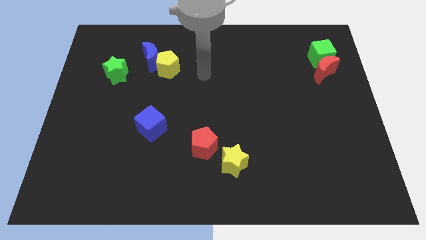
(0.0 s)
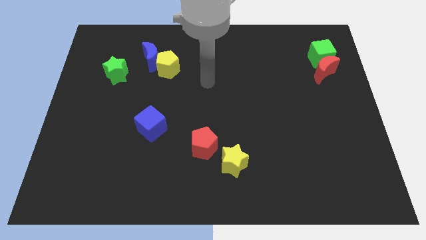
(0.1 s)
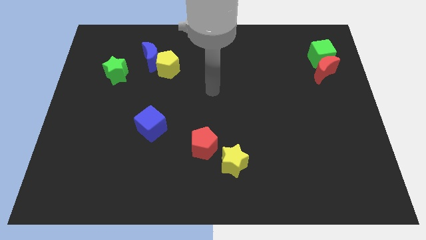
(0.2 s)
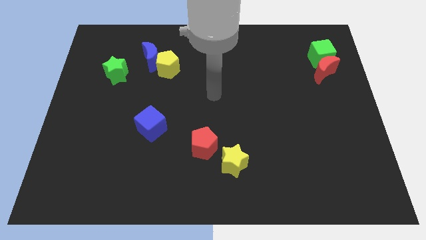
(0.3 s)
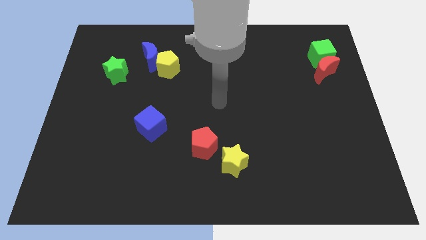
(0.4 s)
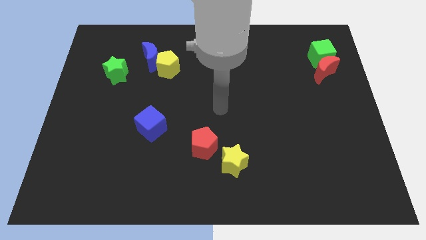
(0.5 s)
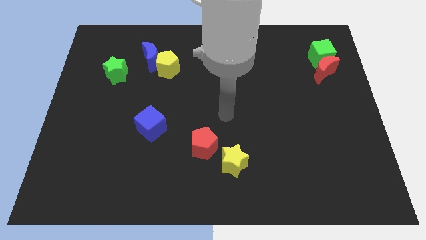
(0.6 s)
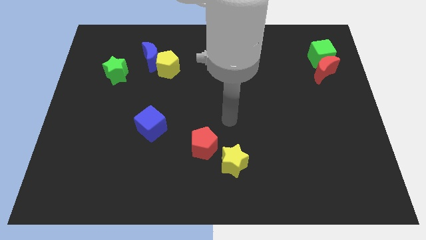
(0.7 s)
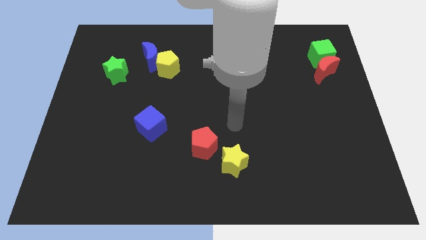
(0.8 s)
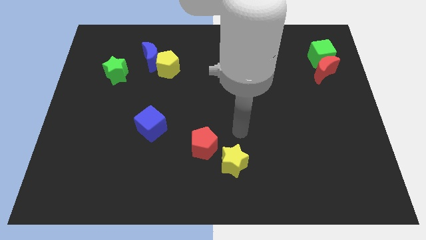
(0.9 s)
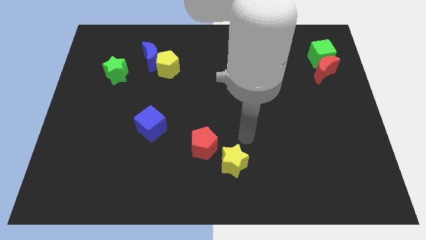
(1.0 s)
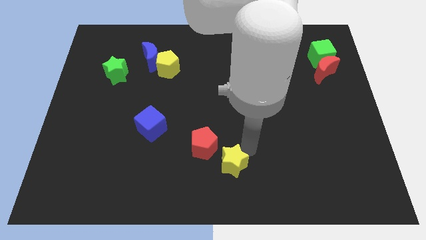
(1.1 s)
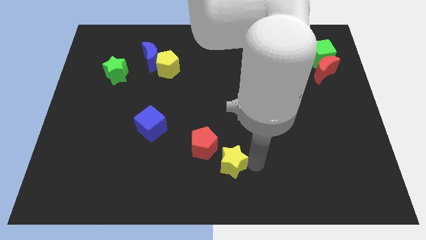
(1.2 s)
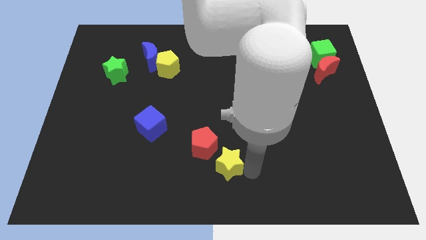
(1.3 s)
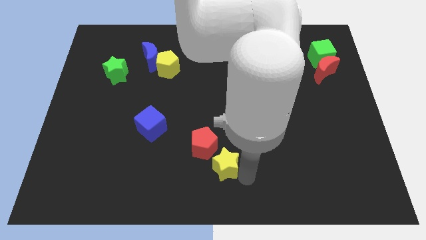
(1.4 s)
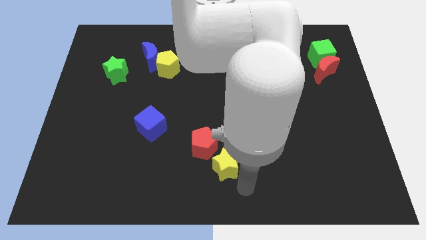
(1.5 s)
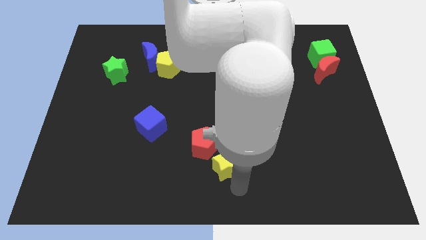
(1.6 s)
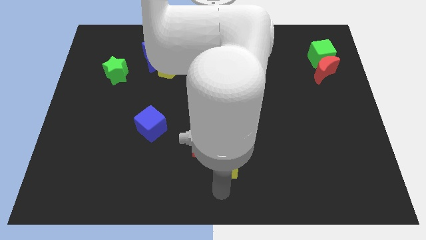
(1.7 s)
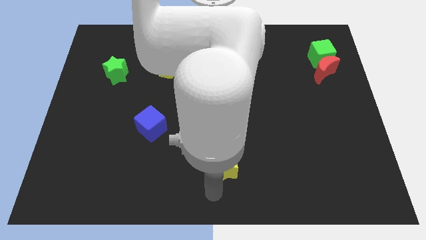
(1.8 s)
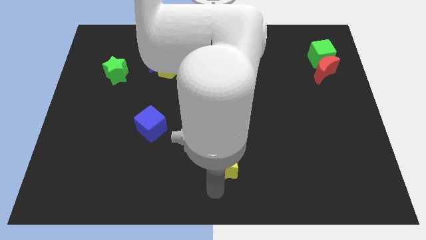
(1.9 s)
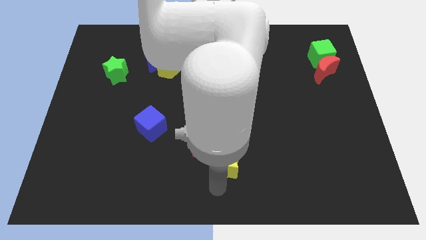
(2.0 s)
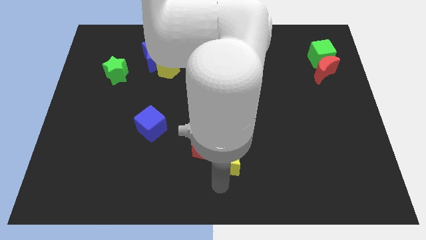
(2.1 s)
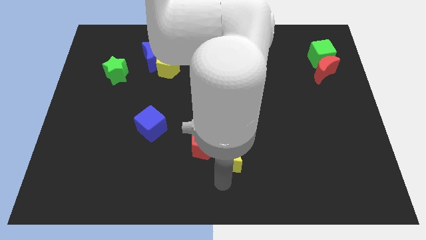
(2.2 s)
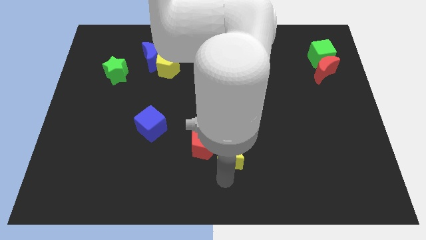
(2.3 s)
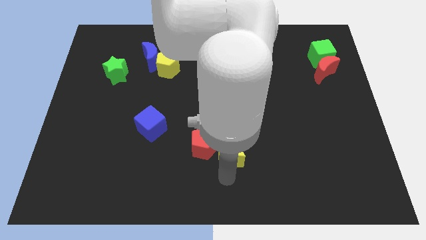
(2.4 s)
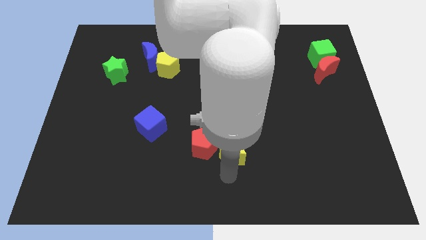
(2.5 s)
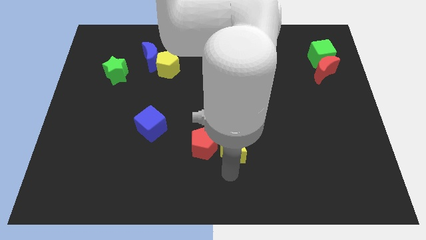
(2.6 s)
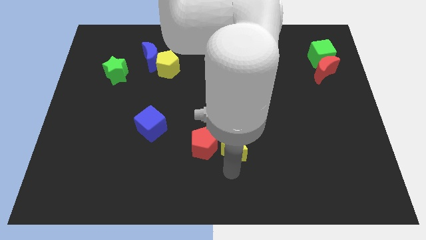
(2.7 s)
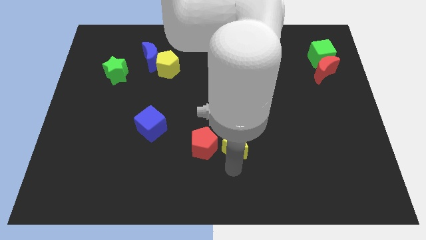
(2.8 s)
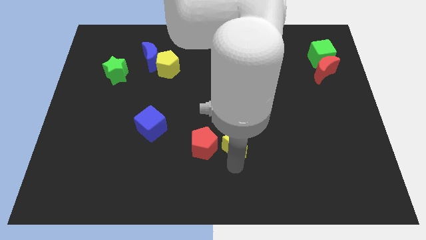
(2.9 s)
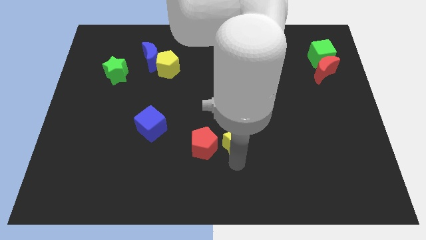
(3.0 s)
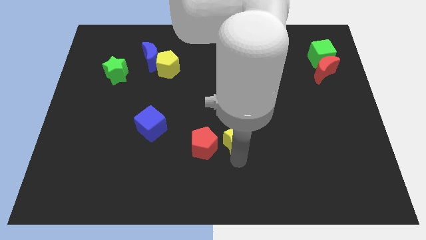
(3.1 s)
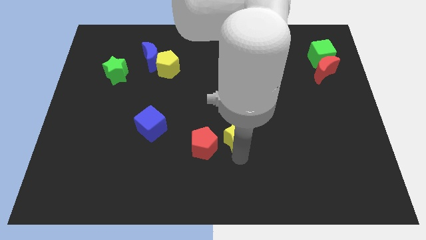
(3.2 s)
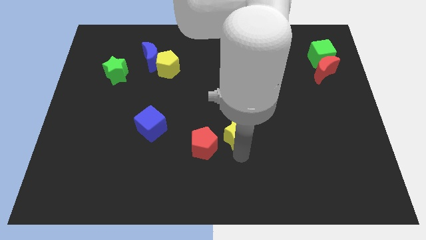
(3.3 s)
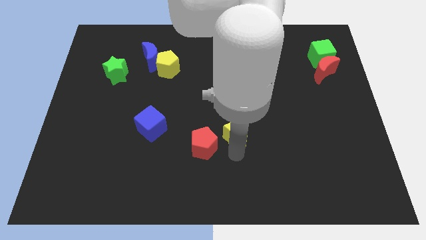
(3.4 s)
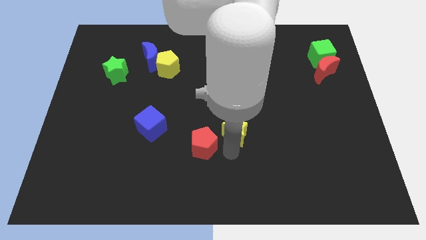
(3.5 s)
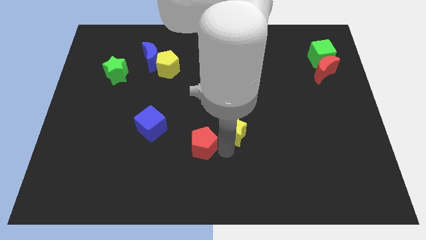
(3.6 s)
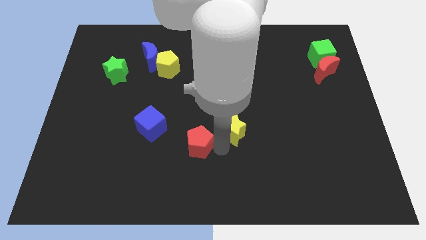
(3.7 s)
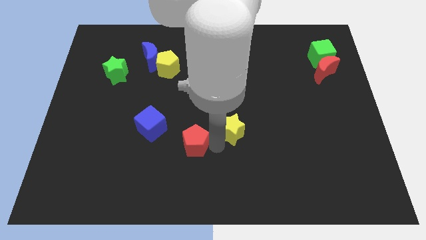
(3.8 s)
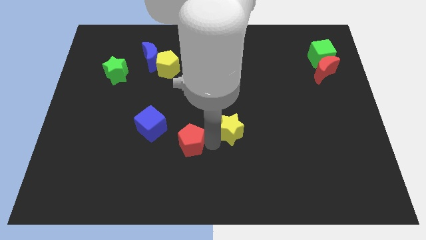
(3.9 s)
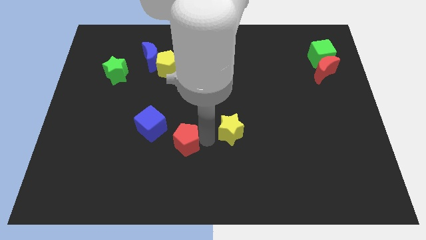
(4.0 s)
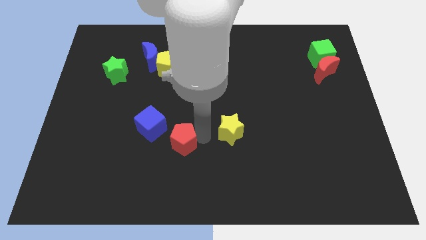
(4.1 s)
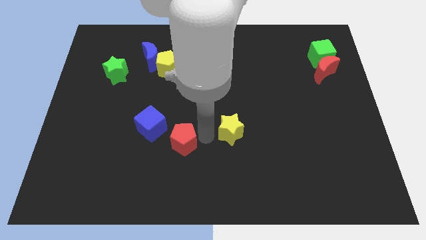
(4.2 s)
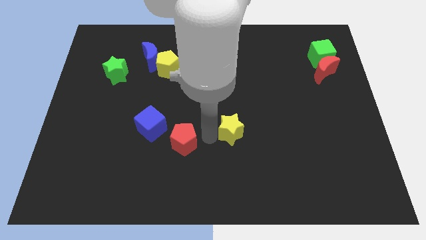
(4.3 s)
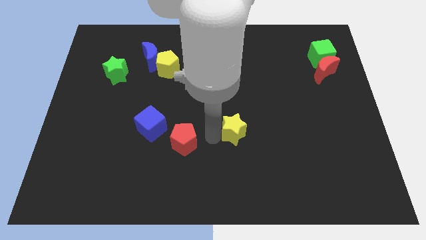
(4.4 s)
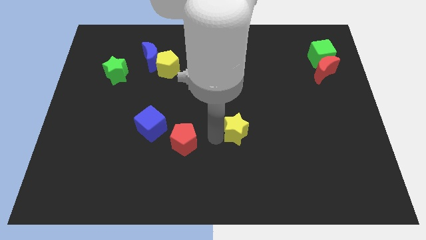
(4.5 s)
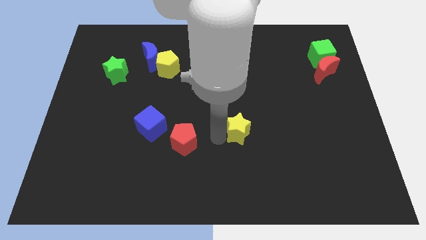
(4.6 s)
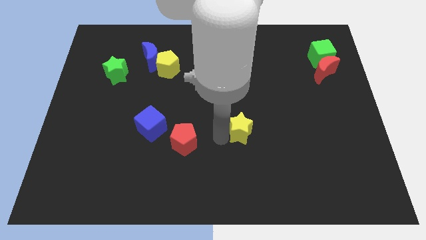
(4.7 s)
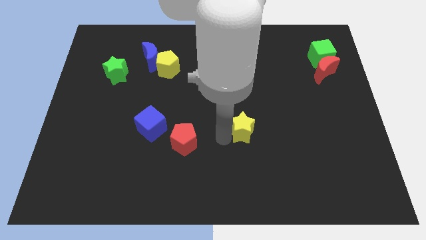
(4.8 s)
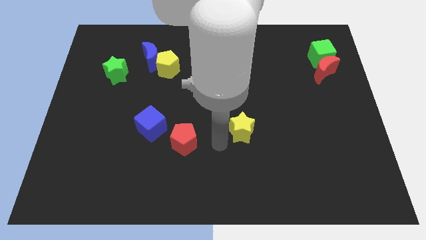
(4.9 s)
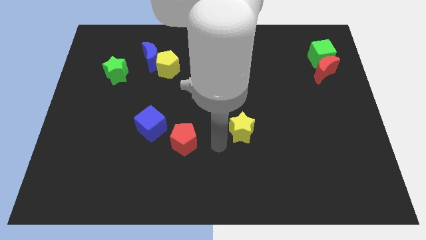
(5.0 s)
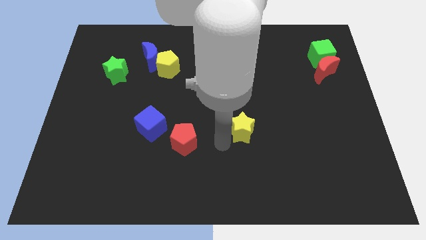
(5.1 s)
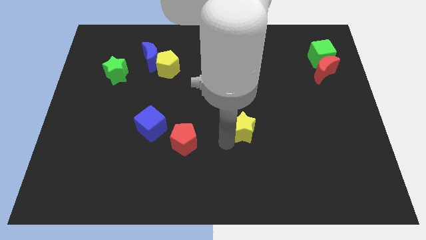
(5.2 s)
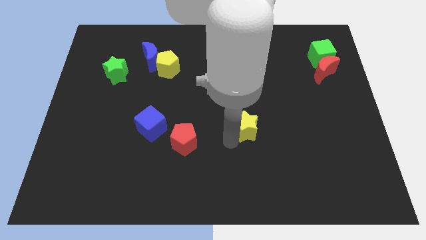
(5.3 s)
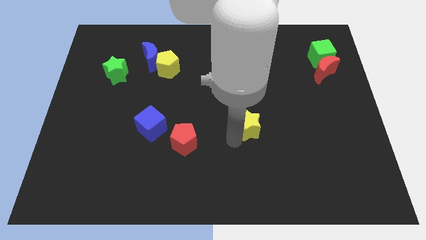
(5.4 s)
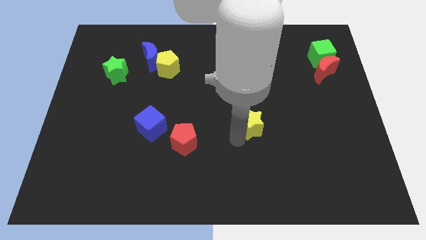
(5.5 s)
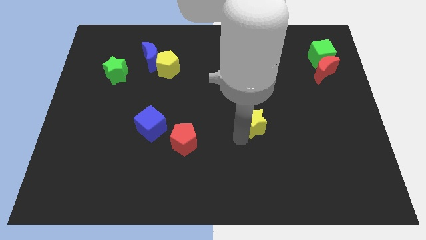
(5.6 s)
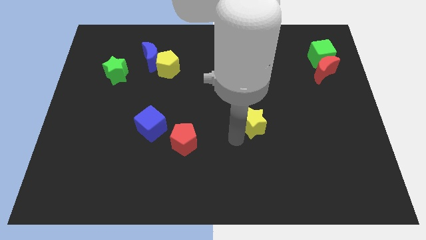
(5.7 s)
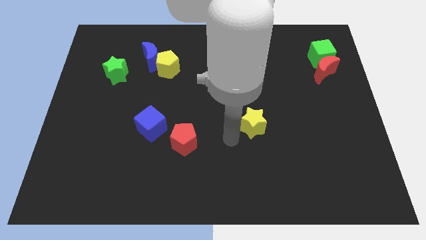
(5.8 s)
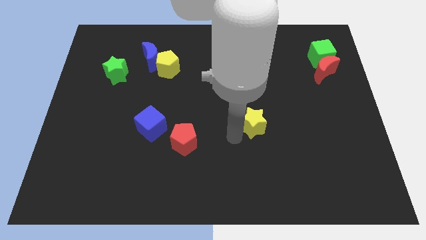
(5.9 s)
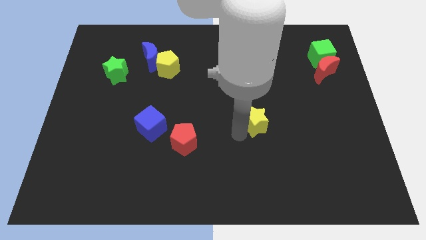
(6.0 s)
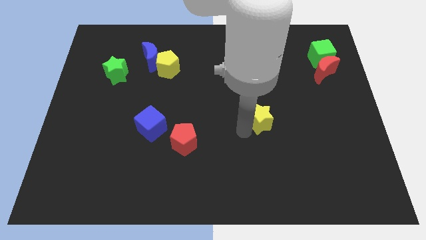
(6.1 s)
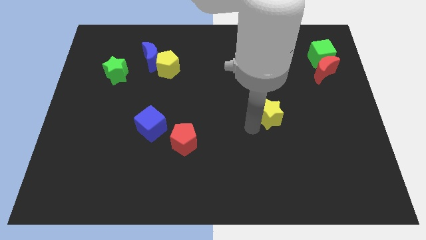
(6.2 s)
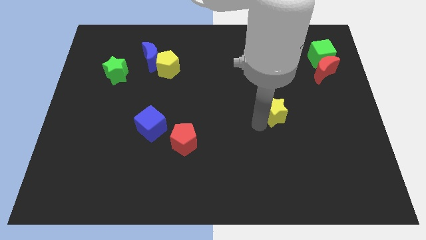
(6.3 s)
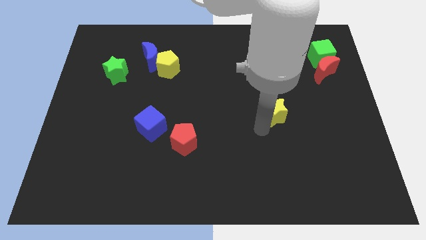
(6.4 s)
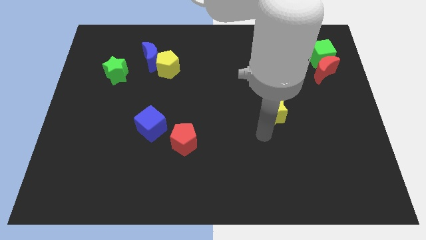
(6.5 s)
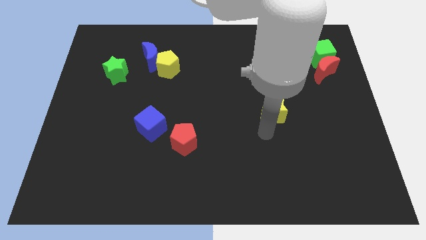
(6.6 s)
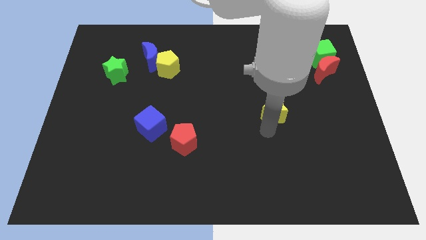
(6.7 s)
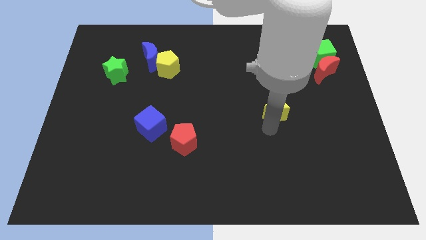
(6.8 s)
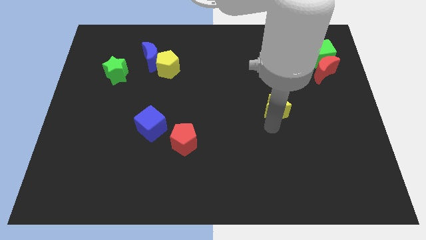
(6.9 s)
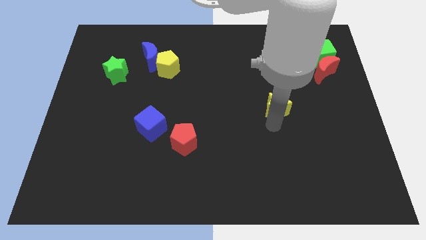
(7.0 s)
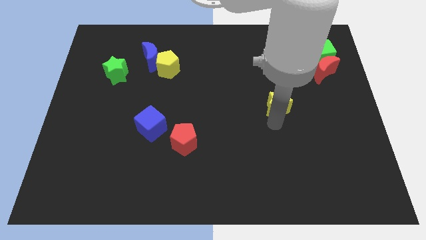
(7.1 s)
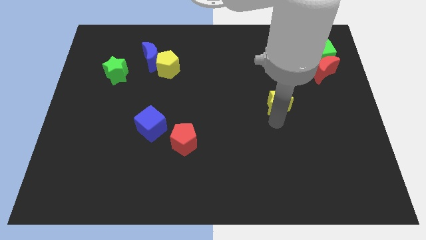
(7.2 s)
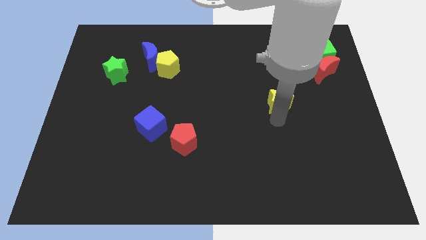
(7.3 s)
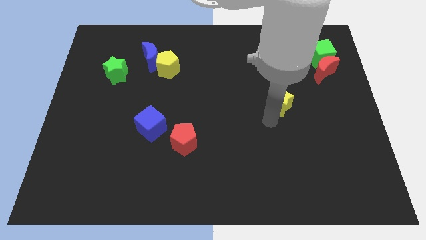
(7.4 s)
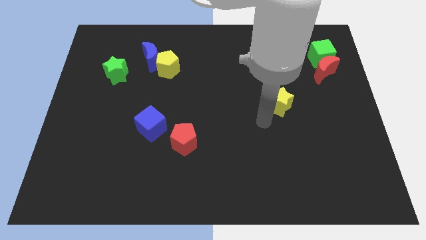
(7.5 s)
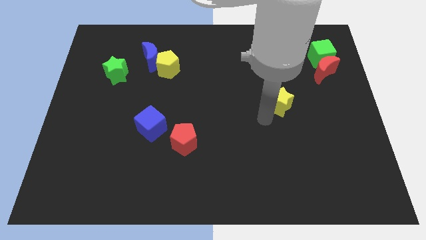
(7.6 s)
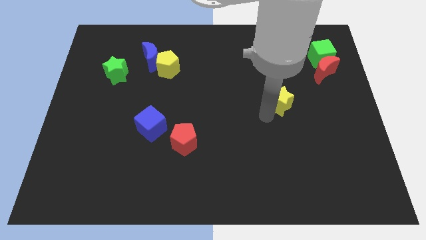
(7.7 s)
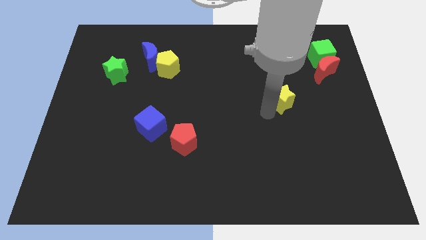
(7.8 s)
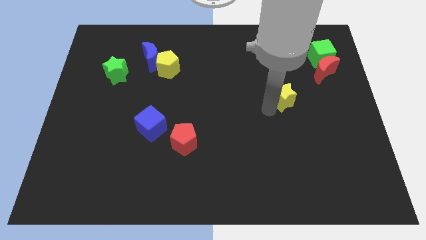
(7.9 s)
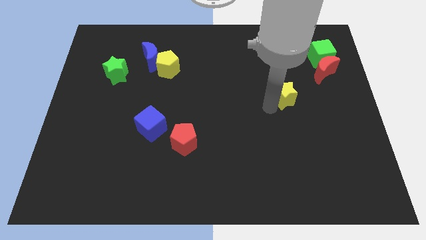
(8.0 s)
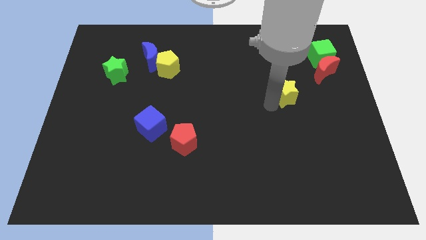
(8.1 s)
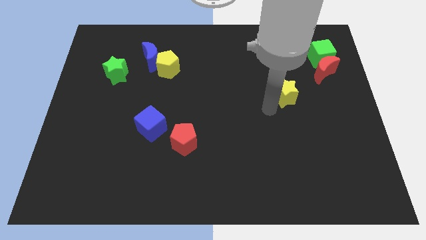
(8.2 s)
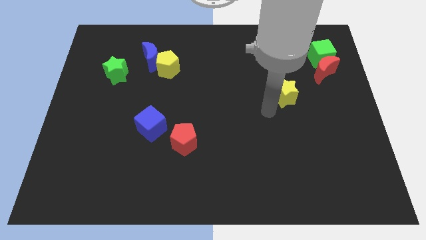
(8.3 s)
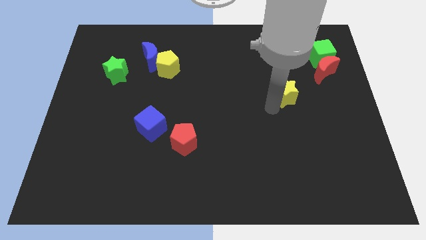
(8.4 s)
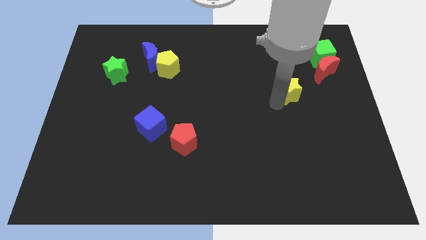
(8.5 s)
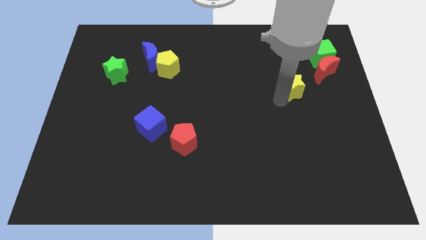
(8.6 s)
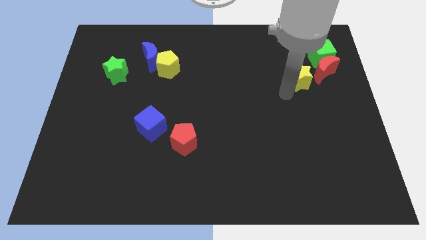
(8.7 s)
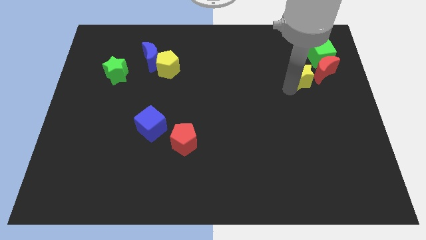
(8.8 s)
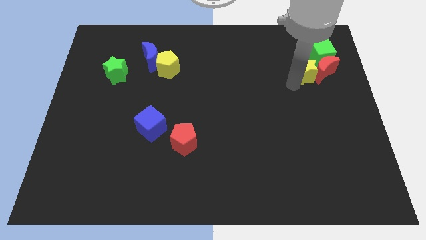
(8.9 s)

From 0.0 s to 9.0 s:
move the yellow star towards the red moon
